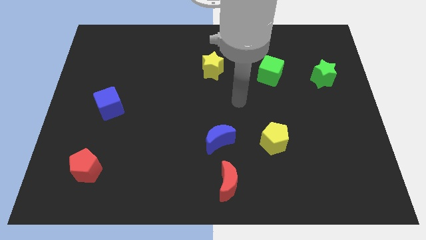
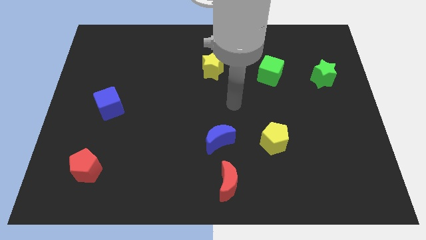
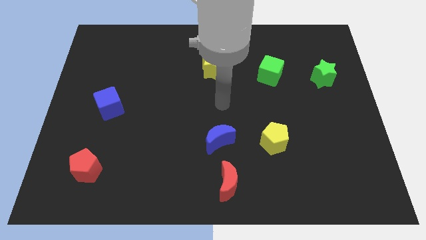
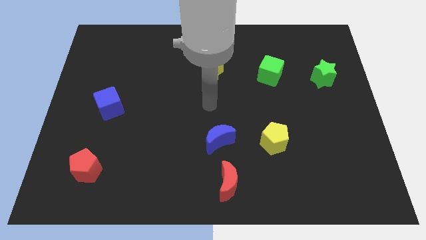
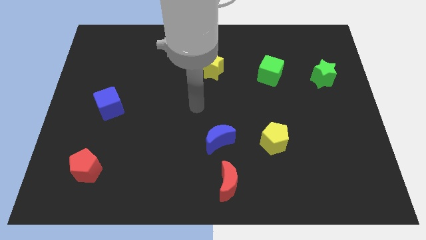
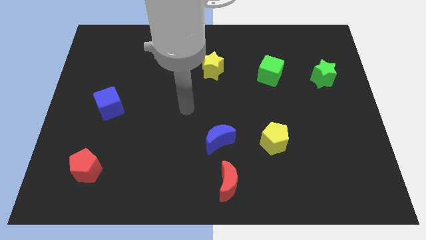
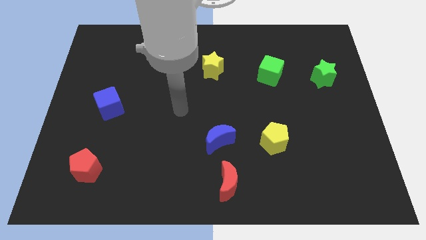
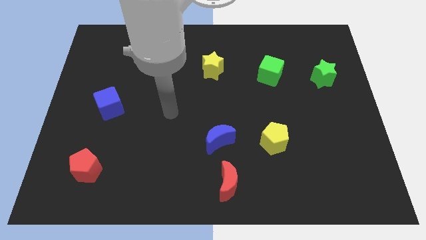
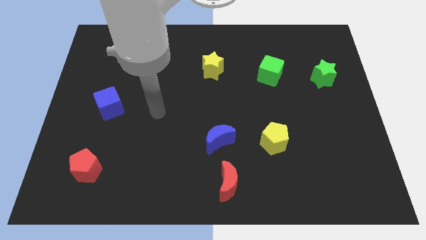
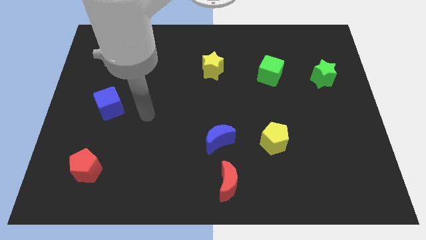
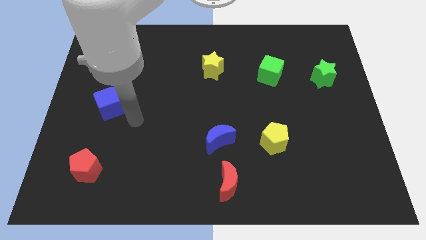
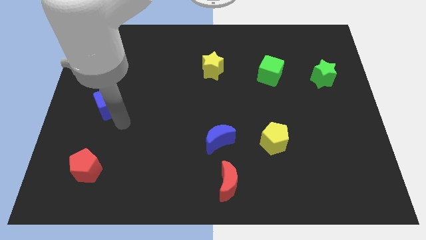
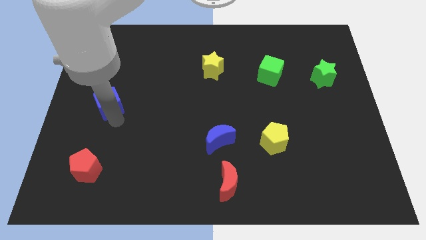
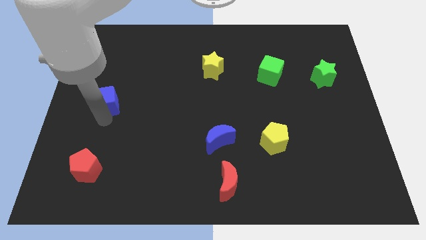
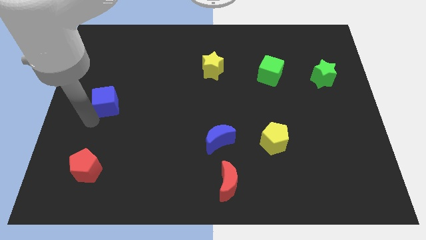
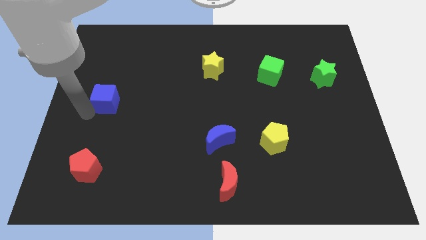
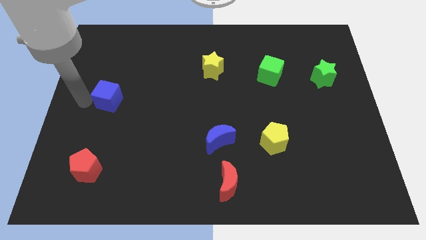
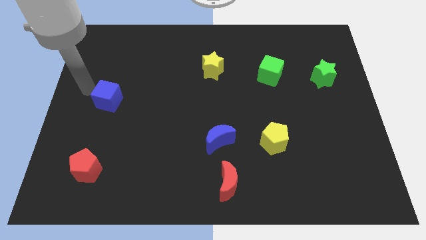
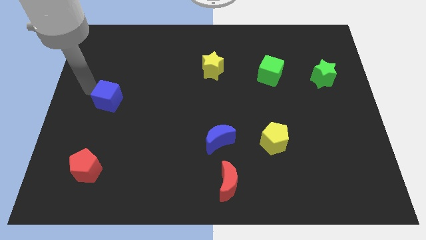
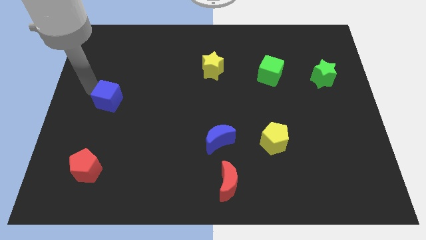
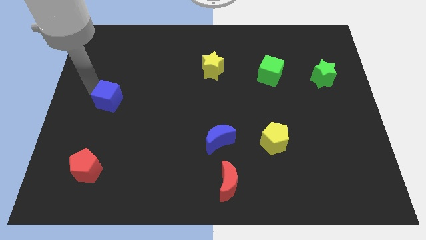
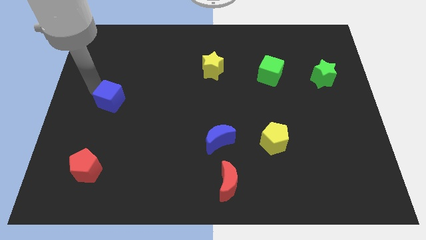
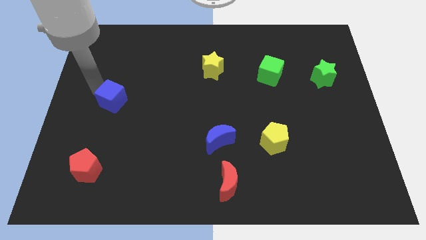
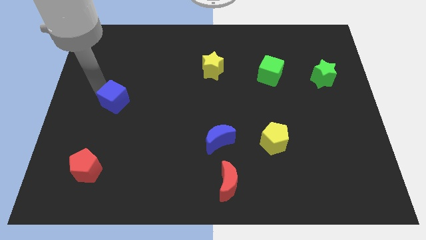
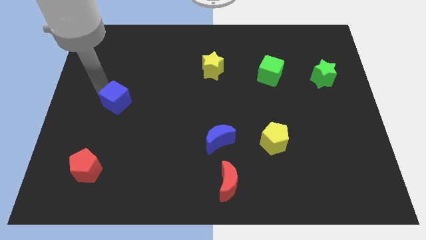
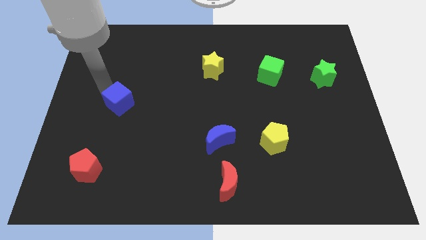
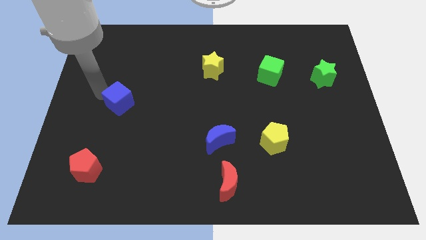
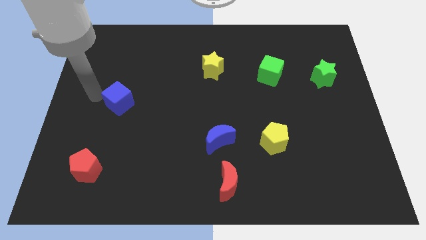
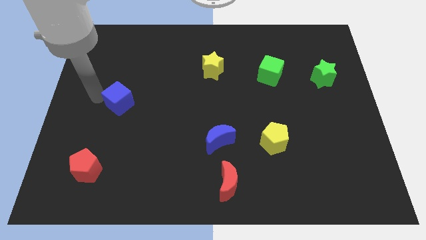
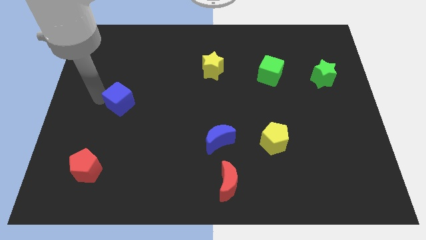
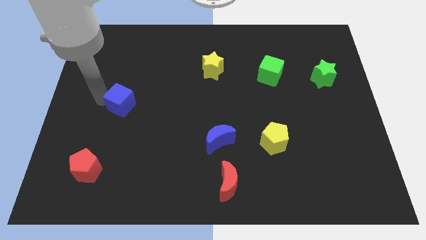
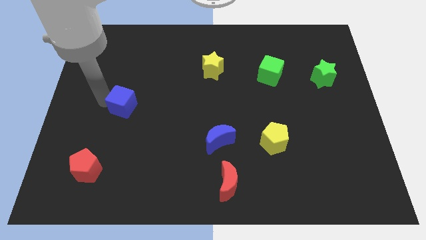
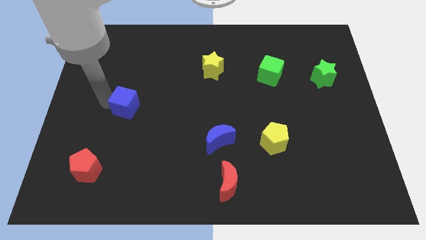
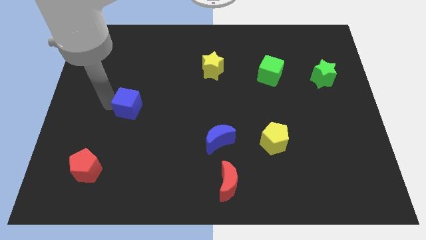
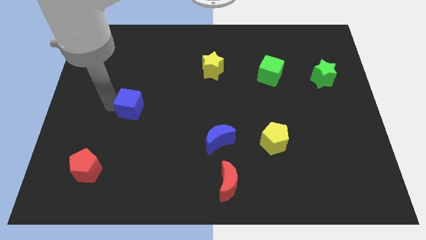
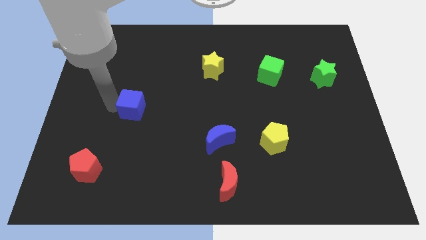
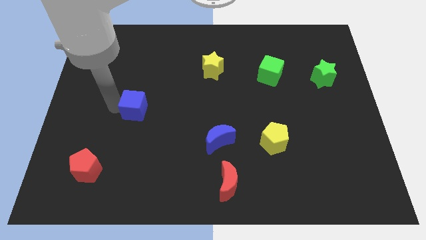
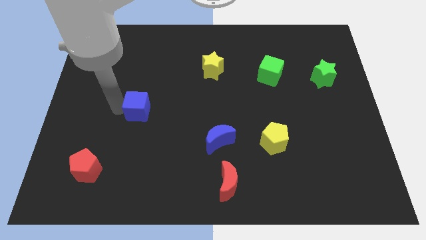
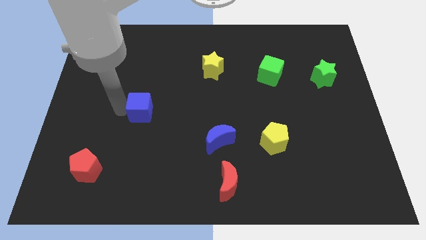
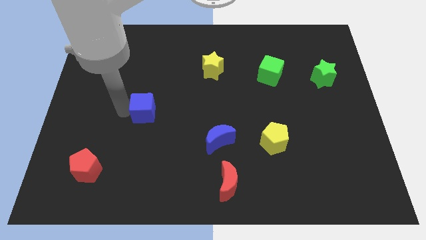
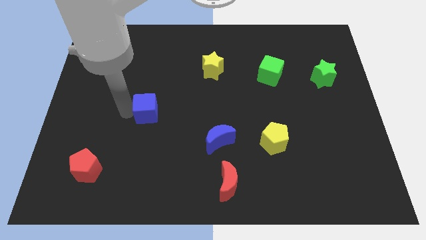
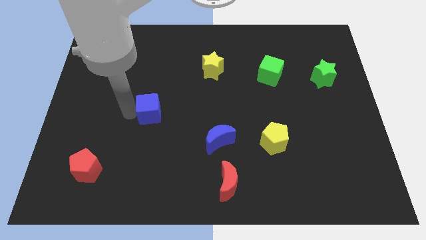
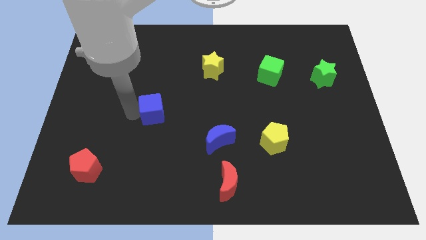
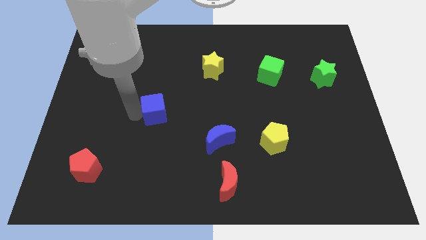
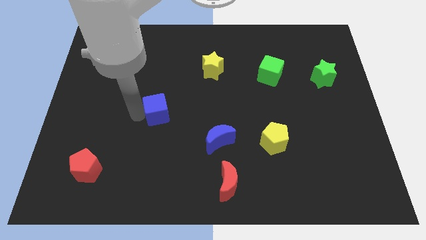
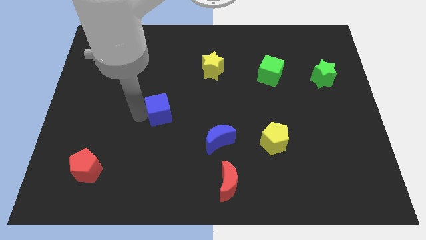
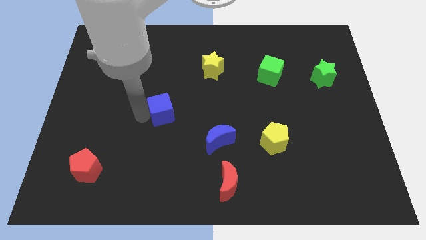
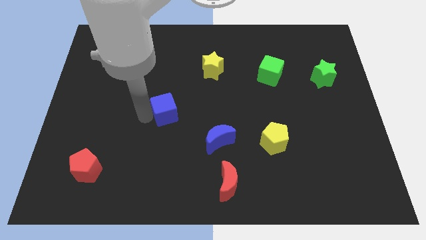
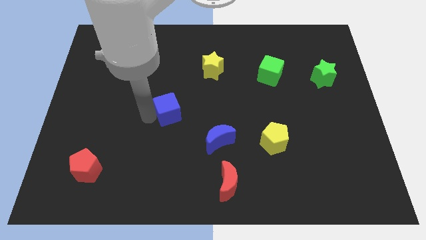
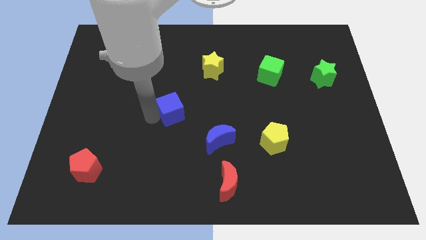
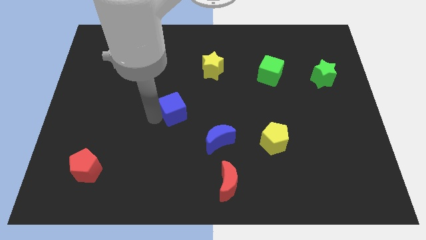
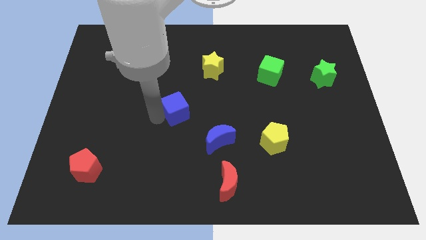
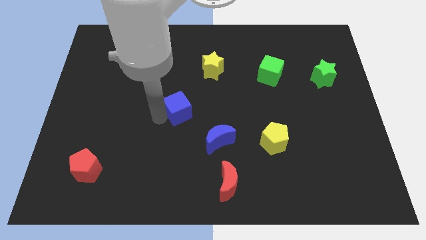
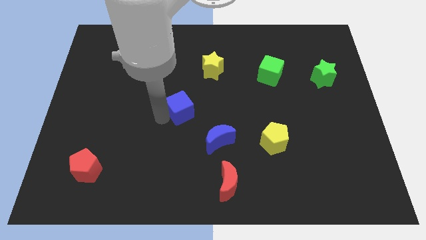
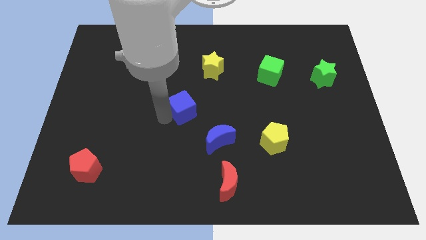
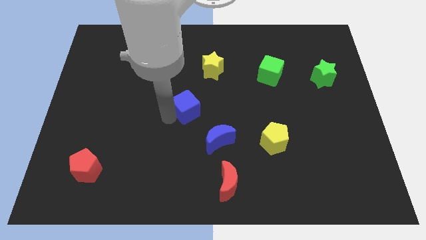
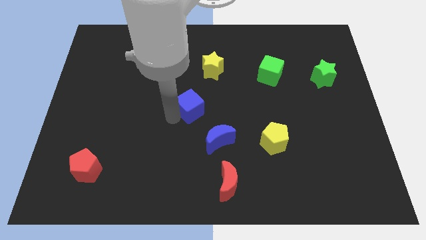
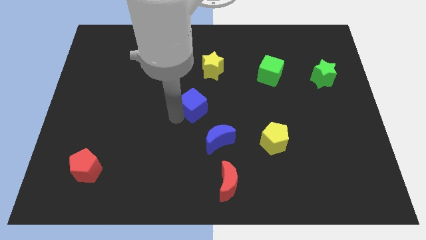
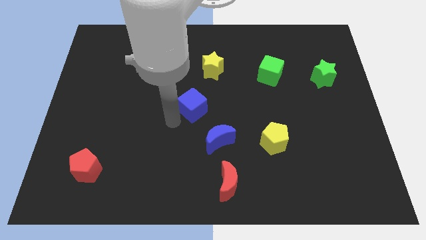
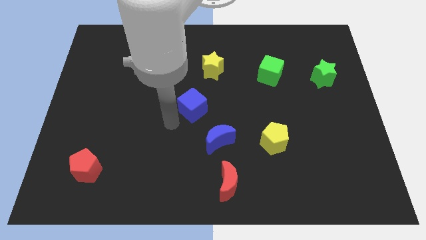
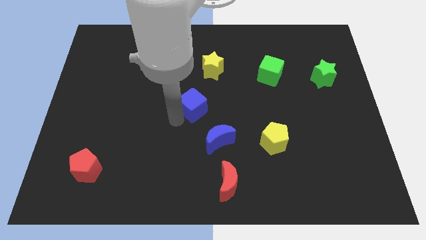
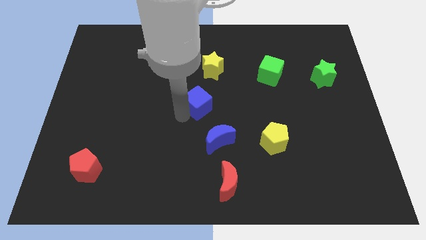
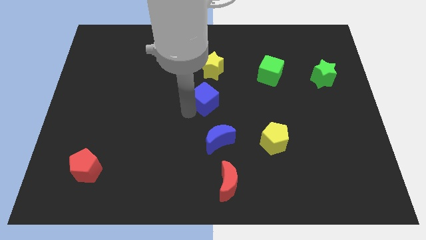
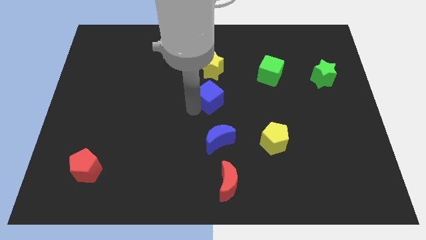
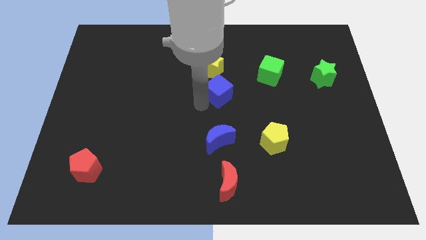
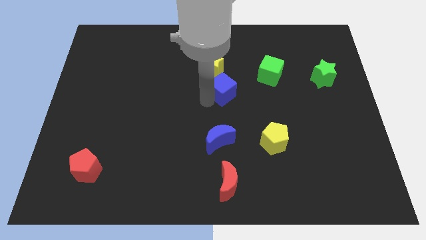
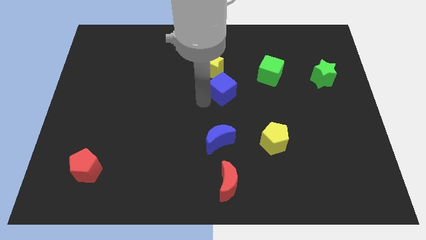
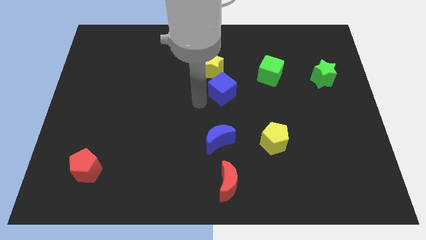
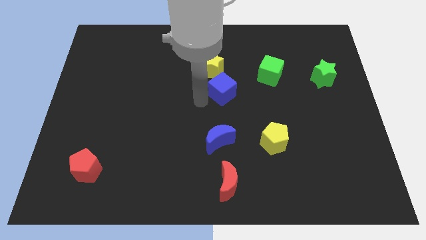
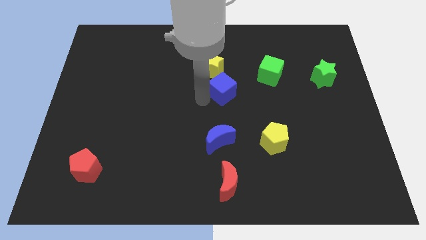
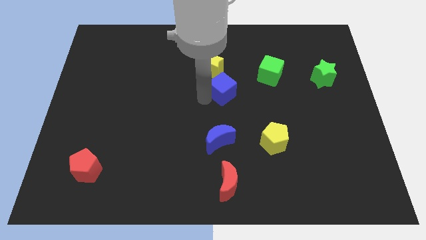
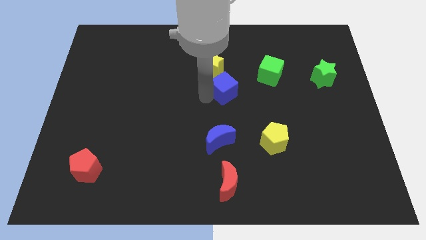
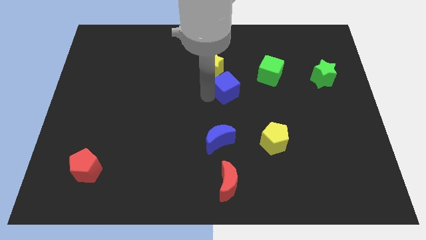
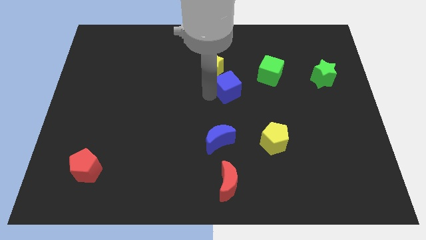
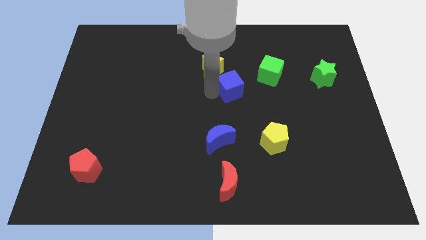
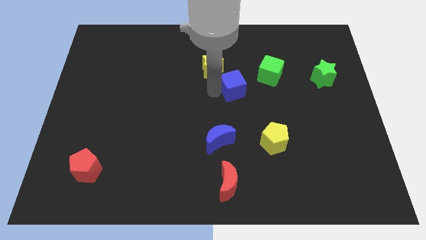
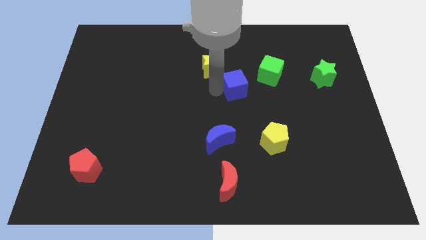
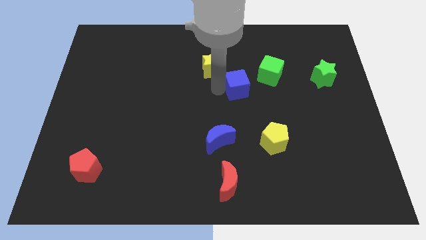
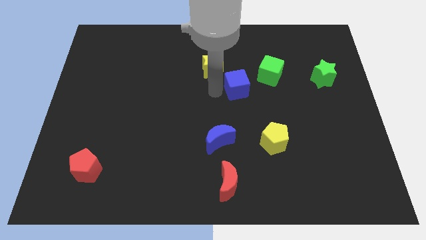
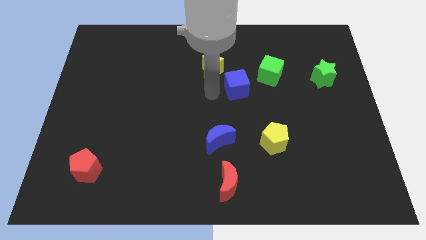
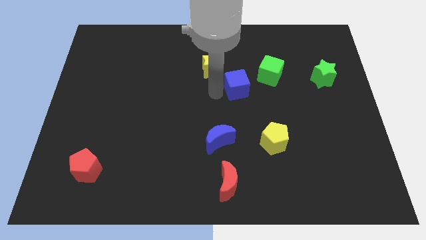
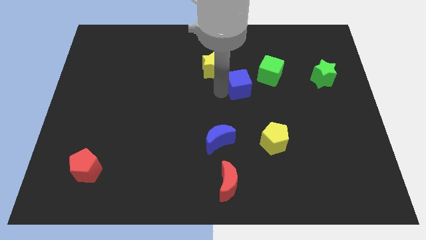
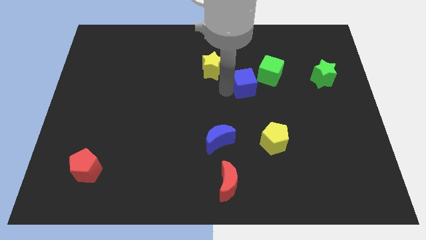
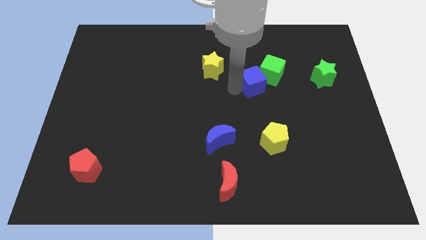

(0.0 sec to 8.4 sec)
move the blue cube towards the green cube
